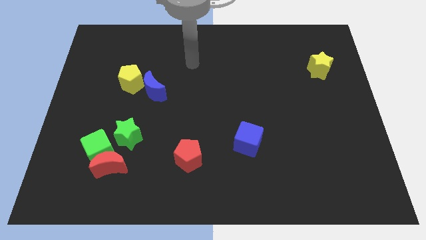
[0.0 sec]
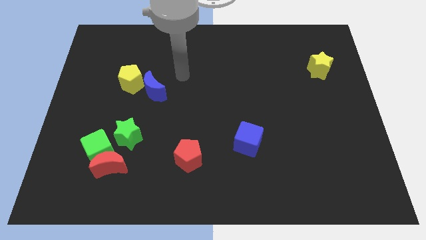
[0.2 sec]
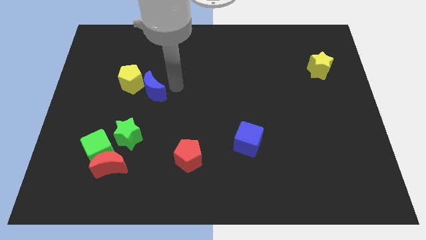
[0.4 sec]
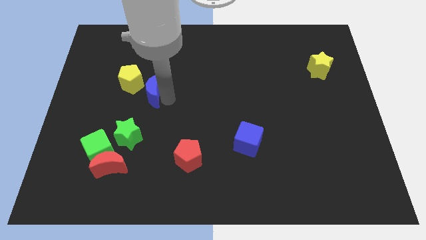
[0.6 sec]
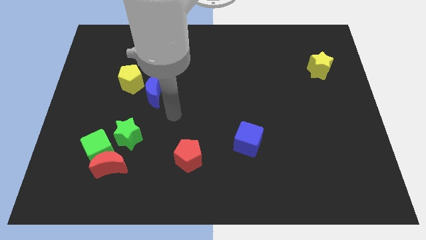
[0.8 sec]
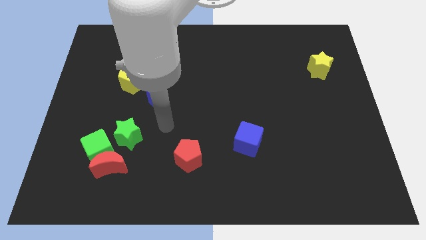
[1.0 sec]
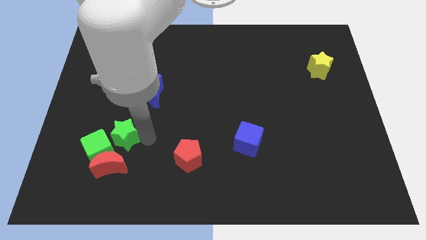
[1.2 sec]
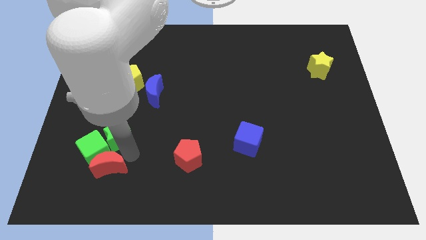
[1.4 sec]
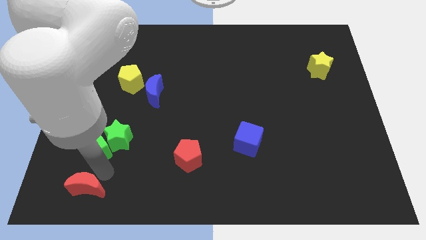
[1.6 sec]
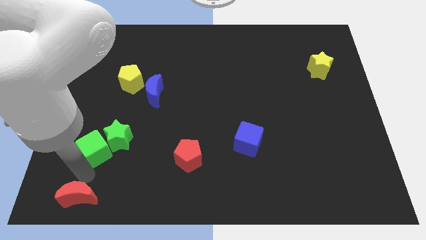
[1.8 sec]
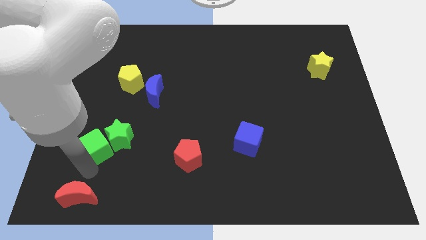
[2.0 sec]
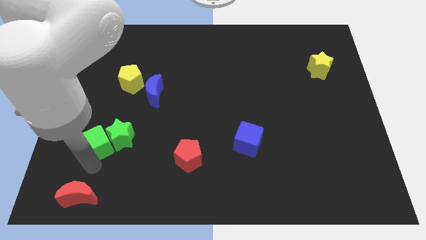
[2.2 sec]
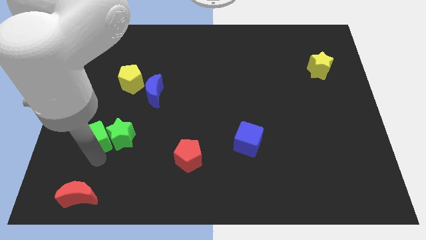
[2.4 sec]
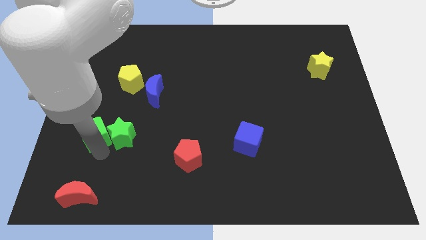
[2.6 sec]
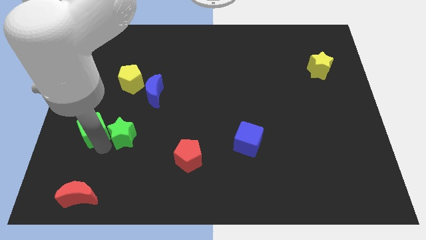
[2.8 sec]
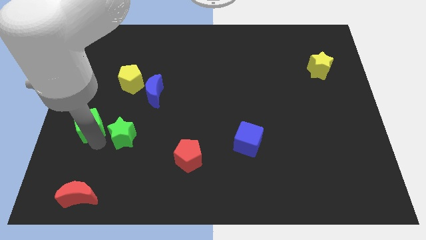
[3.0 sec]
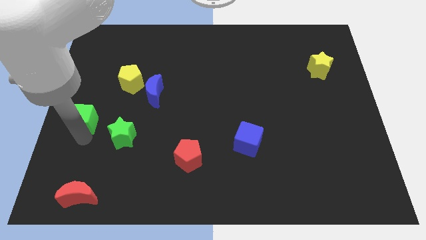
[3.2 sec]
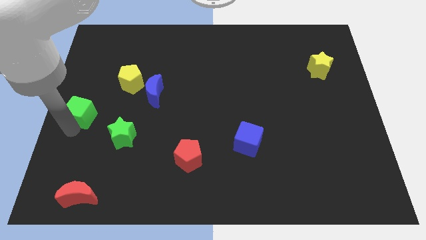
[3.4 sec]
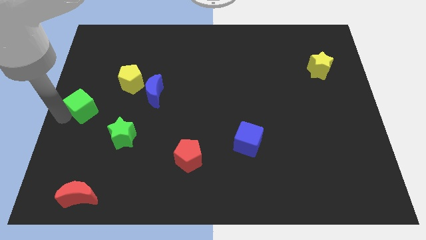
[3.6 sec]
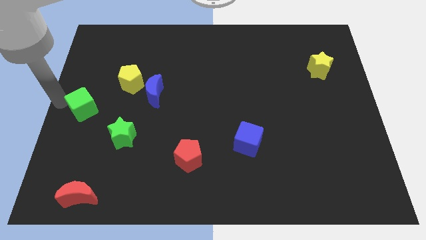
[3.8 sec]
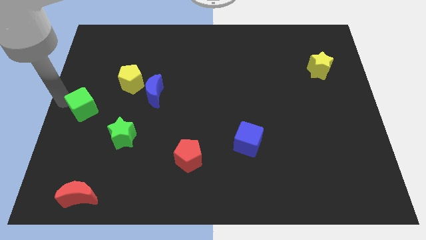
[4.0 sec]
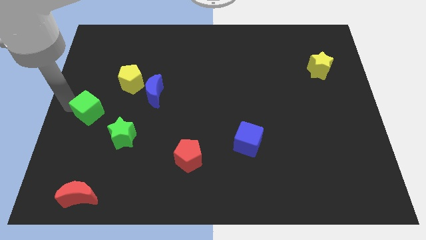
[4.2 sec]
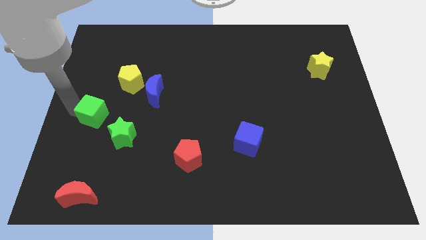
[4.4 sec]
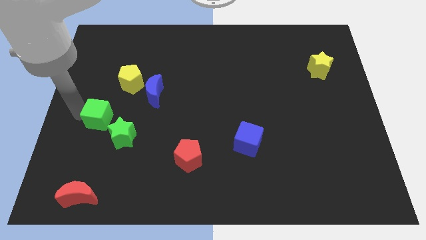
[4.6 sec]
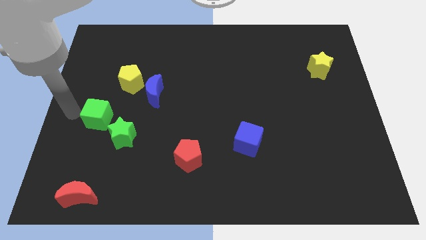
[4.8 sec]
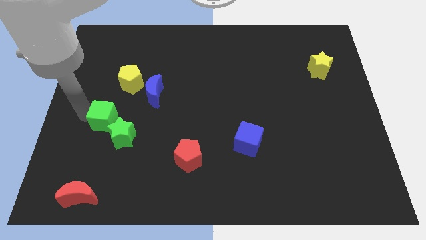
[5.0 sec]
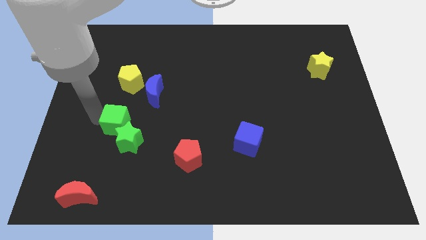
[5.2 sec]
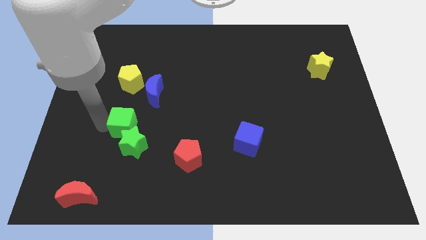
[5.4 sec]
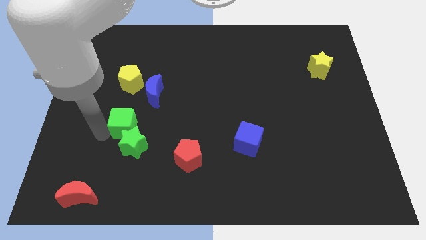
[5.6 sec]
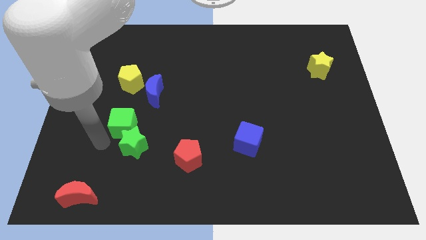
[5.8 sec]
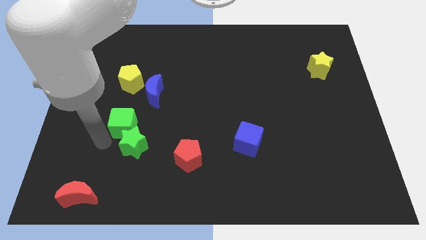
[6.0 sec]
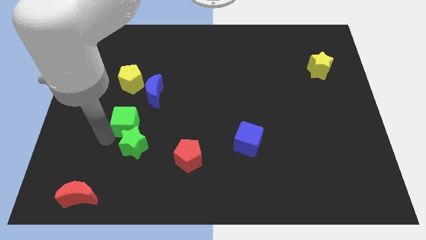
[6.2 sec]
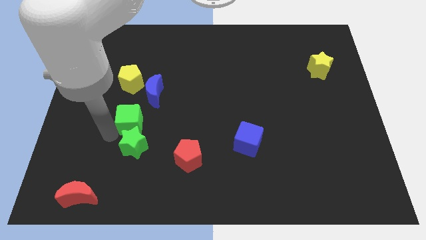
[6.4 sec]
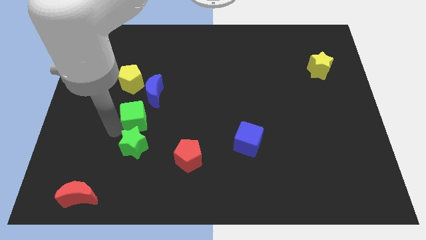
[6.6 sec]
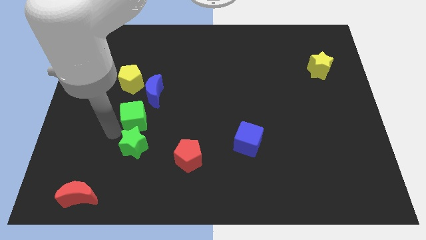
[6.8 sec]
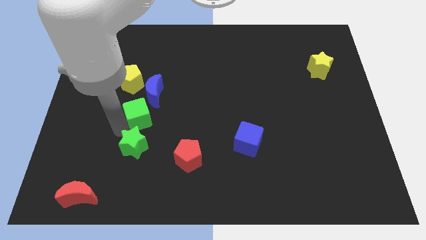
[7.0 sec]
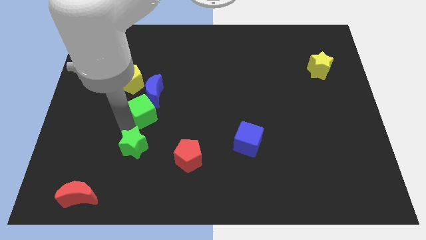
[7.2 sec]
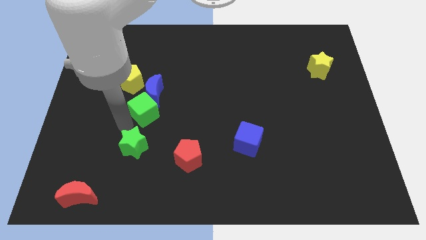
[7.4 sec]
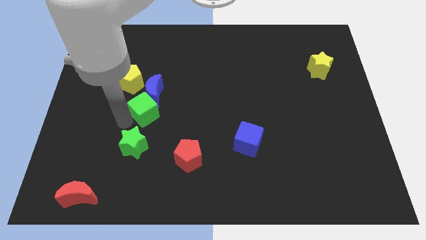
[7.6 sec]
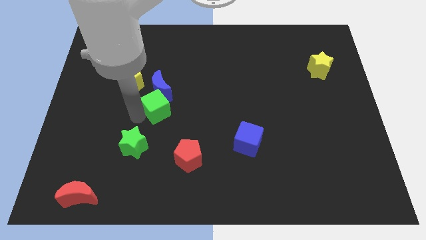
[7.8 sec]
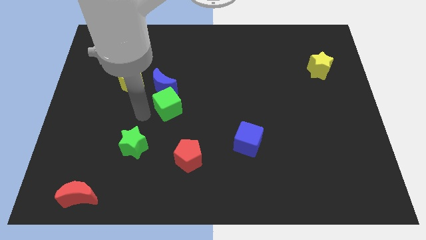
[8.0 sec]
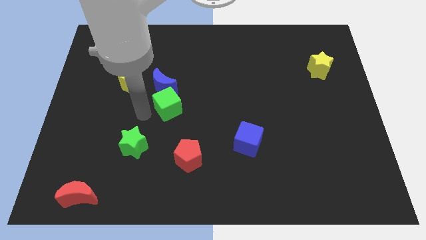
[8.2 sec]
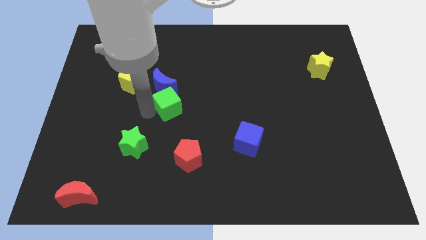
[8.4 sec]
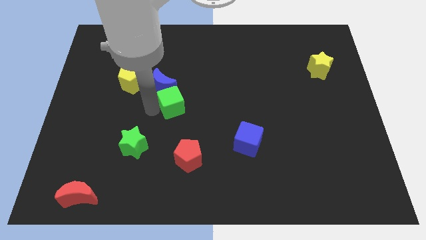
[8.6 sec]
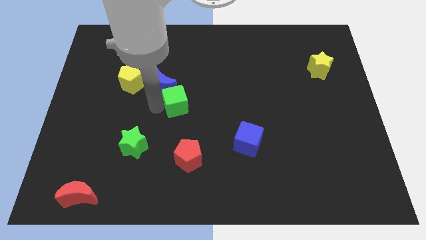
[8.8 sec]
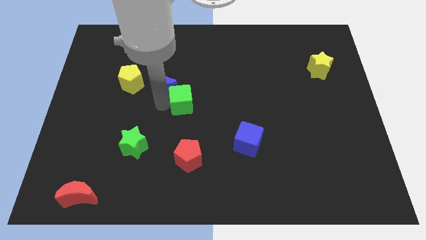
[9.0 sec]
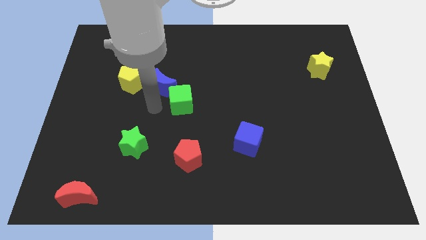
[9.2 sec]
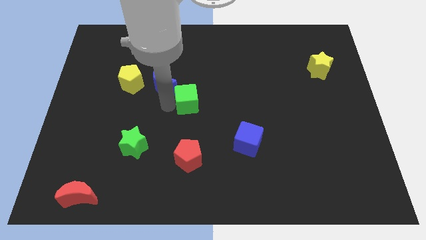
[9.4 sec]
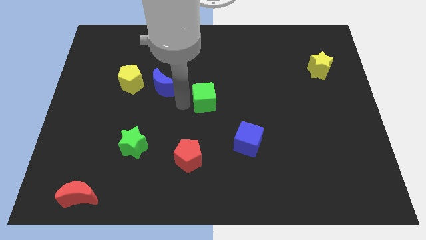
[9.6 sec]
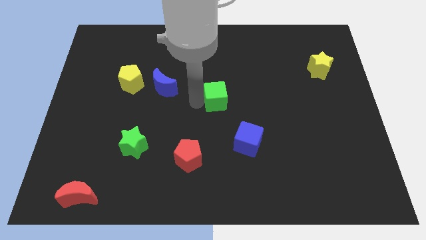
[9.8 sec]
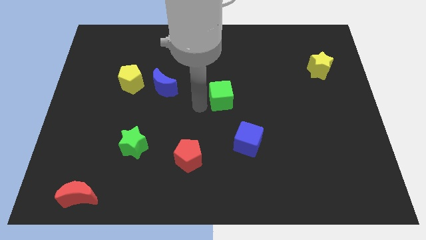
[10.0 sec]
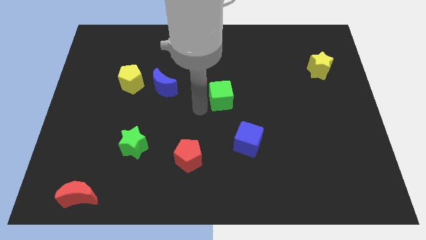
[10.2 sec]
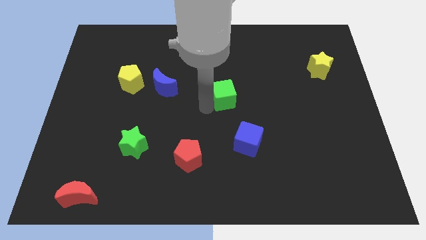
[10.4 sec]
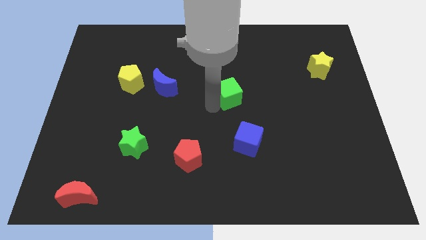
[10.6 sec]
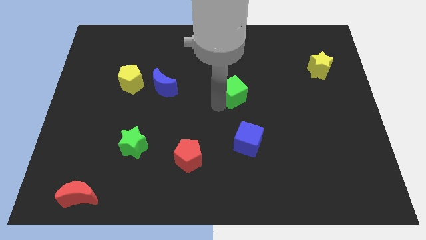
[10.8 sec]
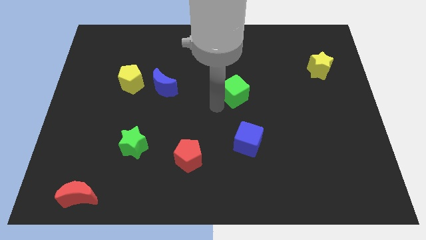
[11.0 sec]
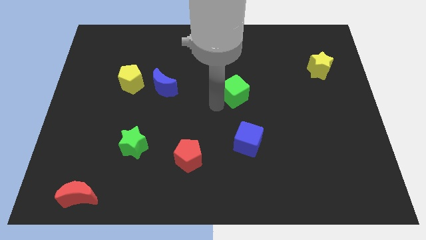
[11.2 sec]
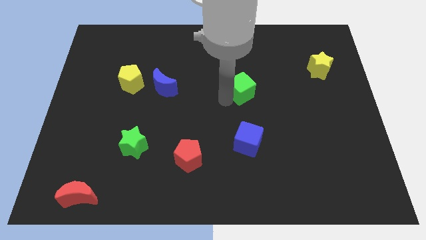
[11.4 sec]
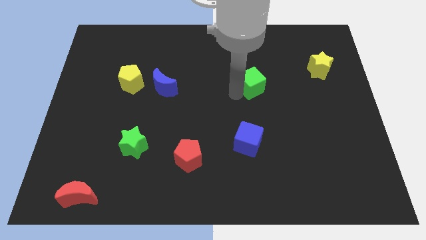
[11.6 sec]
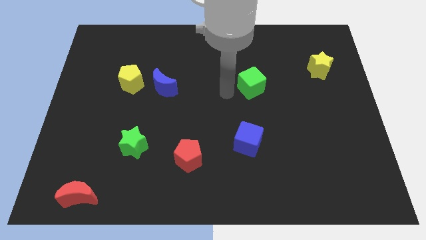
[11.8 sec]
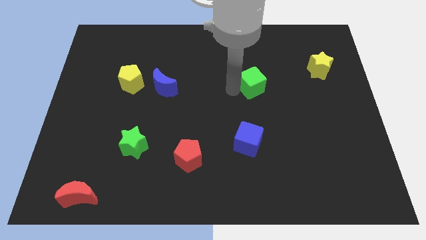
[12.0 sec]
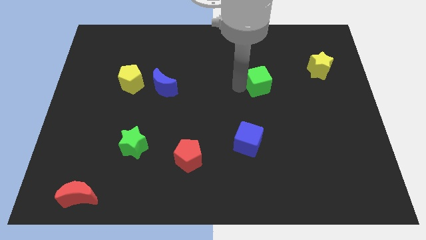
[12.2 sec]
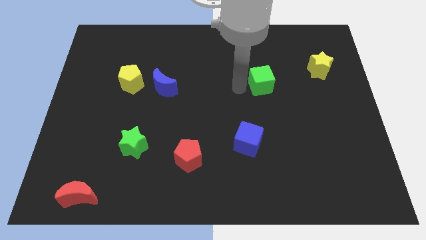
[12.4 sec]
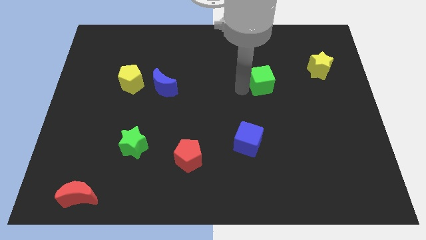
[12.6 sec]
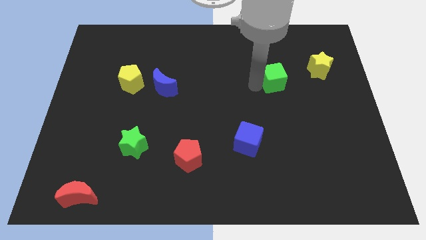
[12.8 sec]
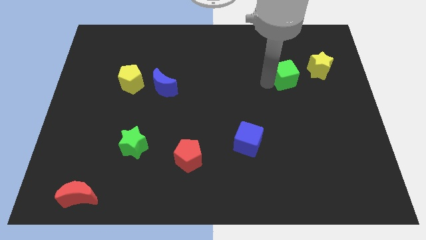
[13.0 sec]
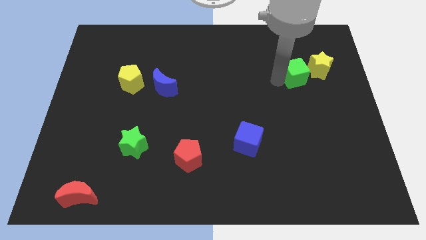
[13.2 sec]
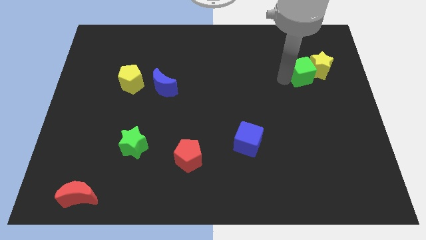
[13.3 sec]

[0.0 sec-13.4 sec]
push the green cube to the yellow star
